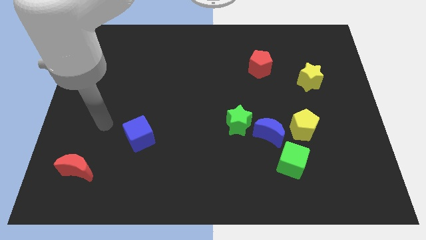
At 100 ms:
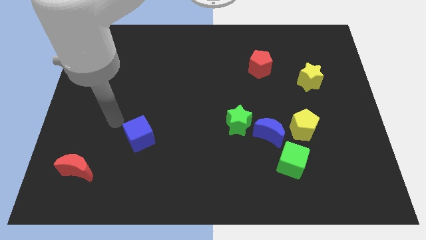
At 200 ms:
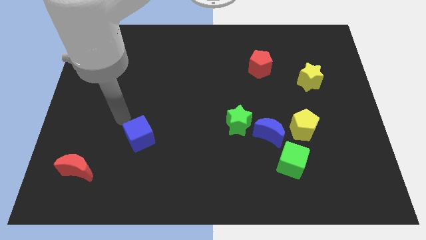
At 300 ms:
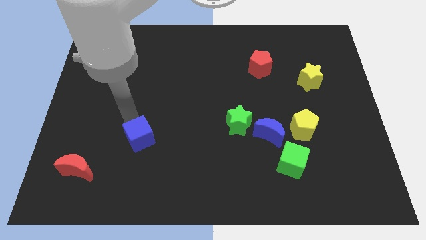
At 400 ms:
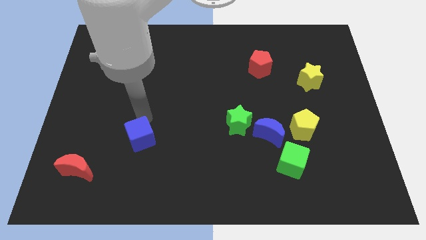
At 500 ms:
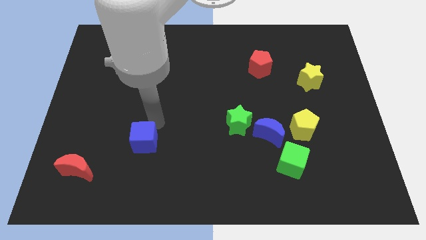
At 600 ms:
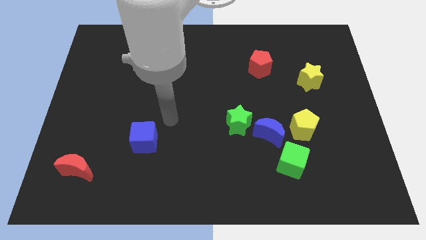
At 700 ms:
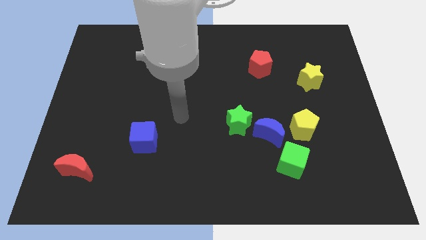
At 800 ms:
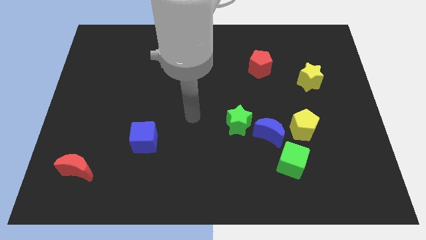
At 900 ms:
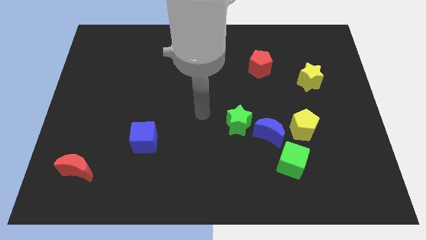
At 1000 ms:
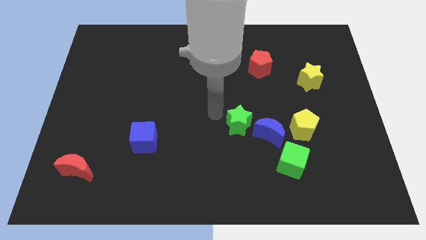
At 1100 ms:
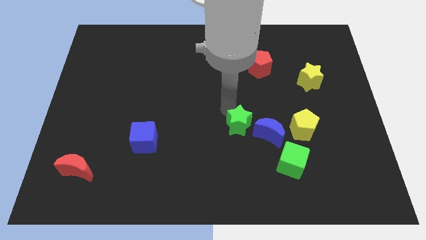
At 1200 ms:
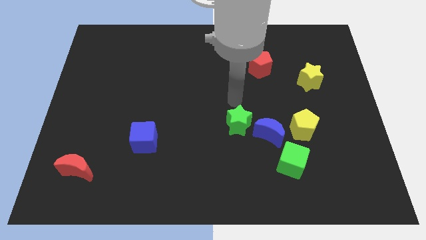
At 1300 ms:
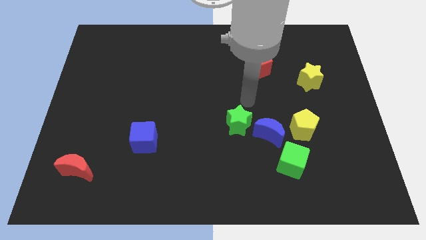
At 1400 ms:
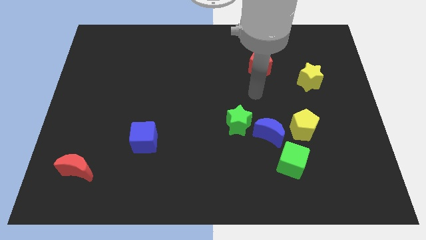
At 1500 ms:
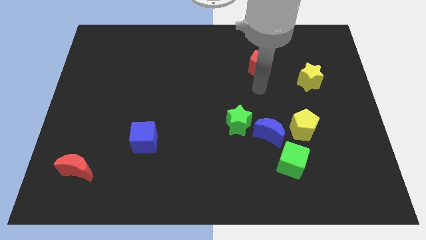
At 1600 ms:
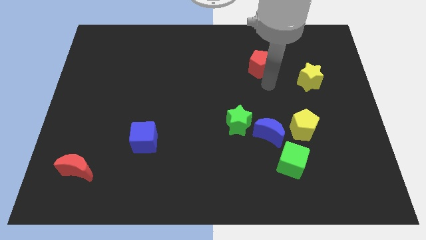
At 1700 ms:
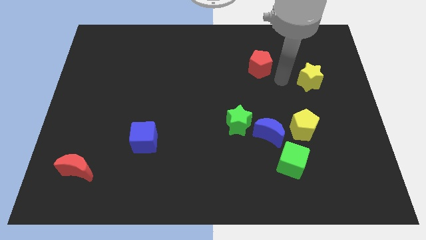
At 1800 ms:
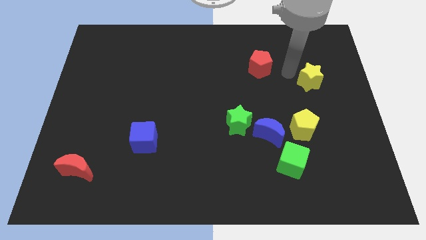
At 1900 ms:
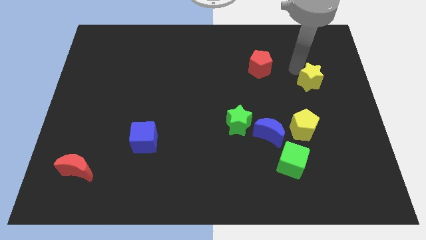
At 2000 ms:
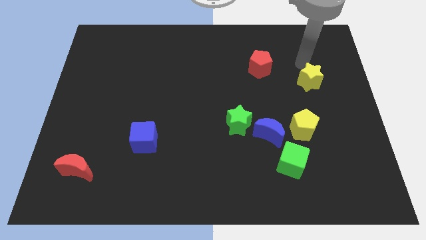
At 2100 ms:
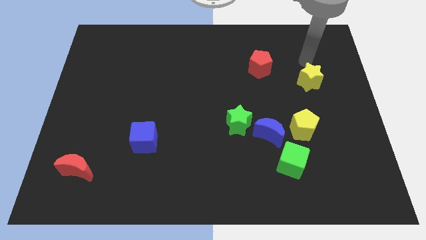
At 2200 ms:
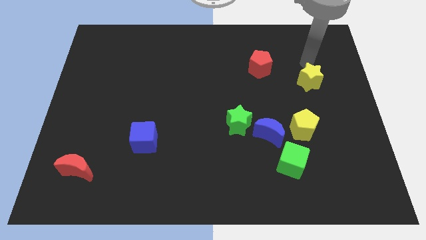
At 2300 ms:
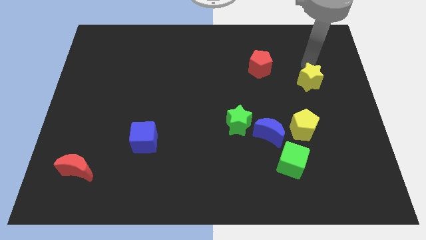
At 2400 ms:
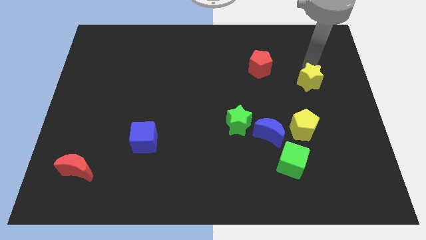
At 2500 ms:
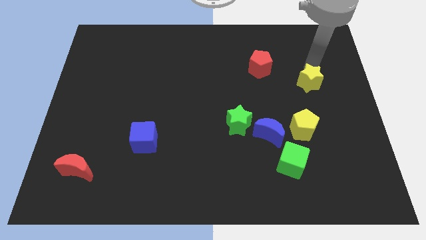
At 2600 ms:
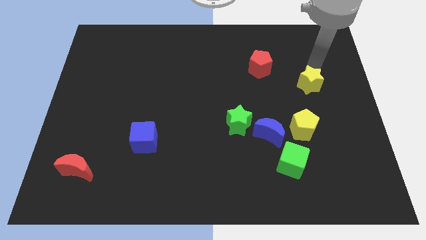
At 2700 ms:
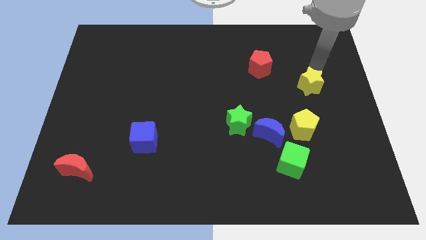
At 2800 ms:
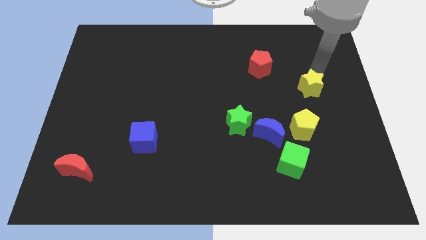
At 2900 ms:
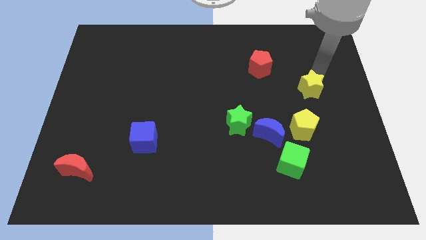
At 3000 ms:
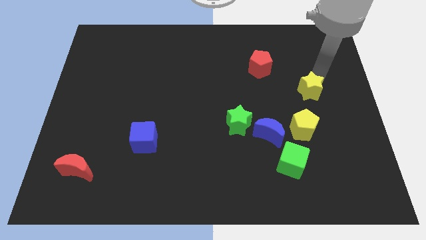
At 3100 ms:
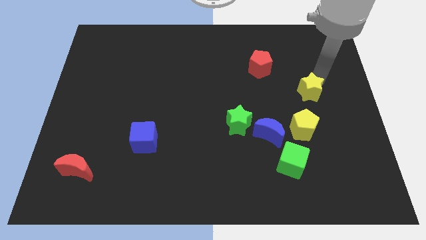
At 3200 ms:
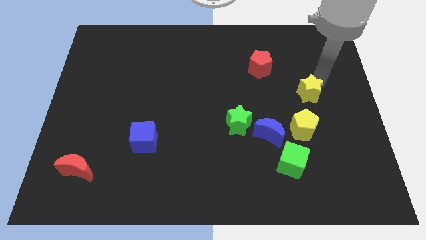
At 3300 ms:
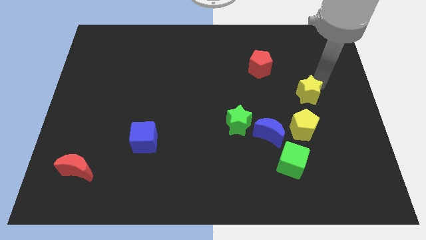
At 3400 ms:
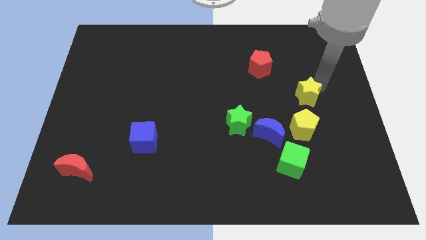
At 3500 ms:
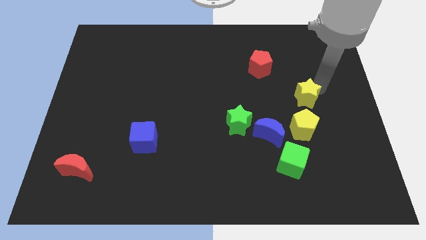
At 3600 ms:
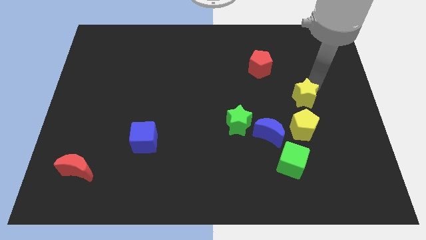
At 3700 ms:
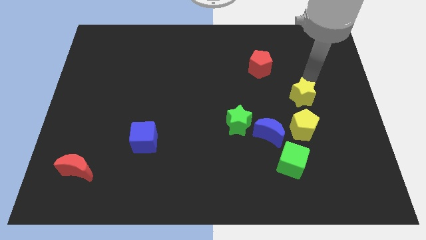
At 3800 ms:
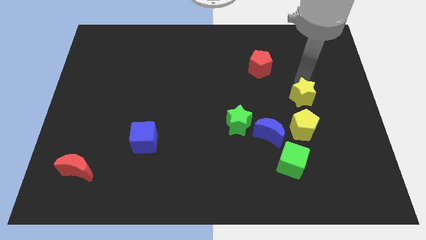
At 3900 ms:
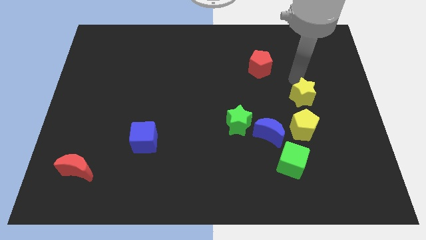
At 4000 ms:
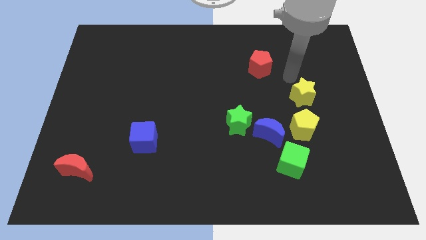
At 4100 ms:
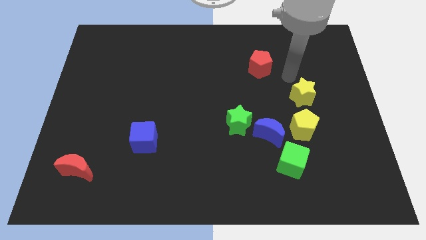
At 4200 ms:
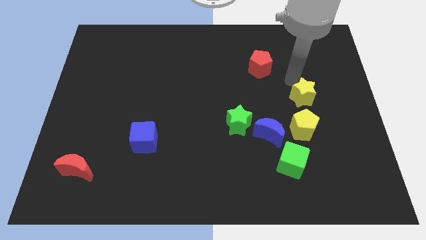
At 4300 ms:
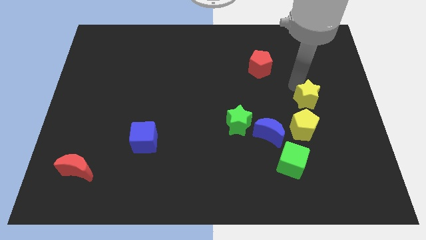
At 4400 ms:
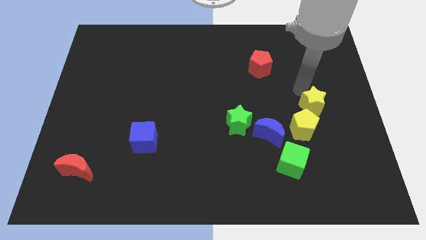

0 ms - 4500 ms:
move the yellow star a little bit downwards

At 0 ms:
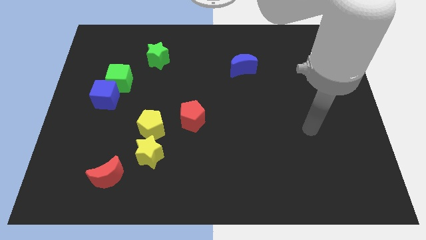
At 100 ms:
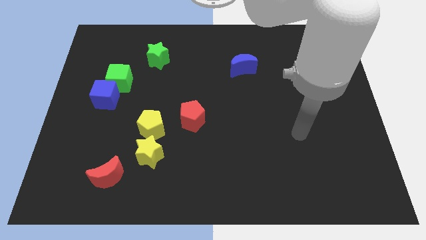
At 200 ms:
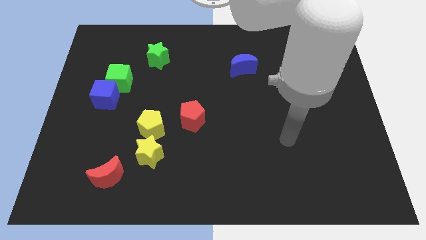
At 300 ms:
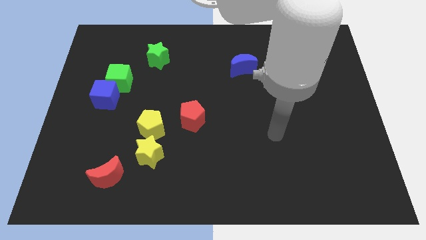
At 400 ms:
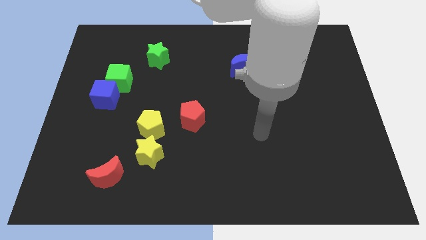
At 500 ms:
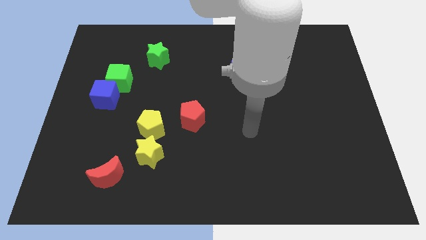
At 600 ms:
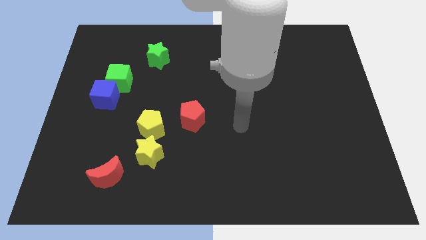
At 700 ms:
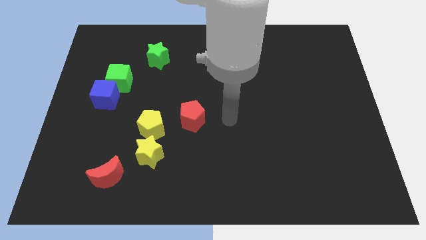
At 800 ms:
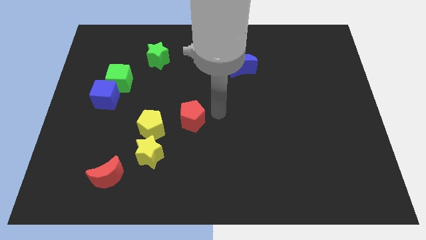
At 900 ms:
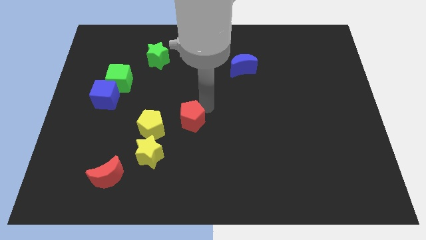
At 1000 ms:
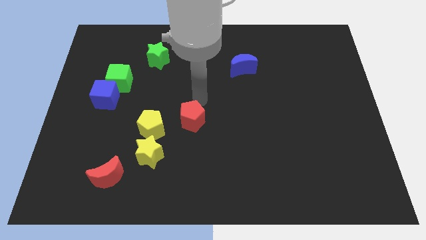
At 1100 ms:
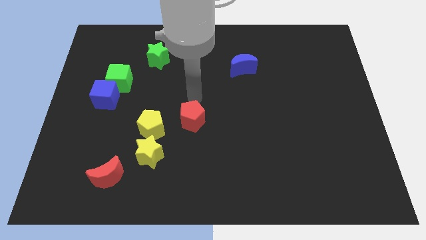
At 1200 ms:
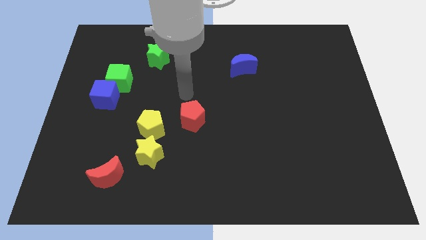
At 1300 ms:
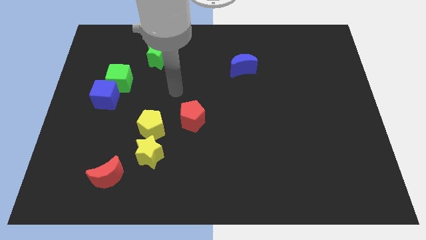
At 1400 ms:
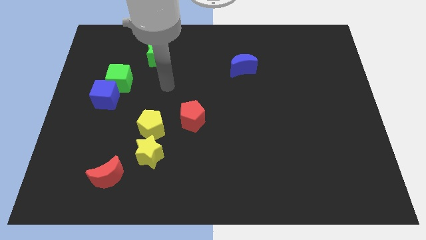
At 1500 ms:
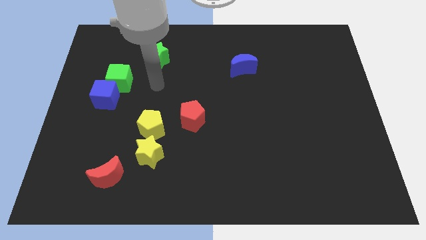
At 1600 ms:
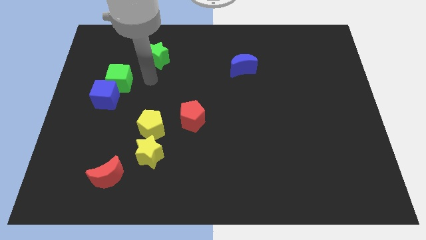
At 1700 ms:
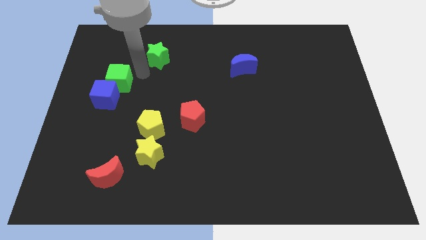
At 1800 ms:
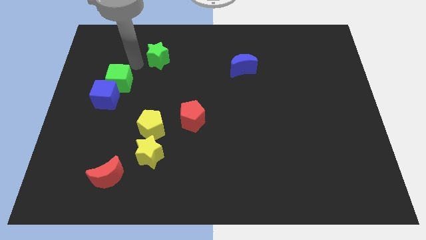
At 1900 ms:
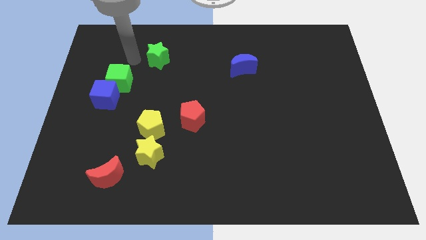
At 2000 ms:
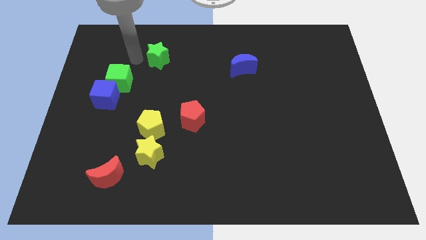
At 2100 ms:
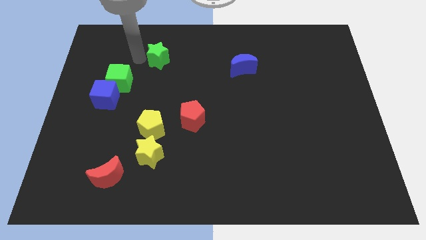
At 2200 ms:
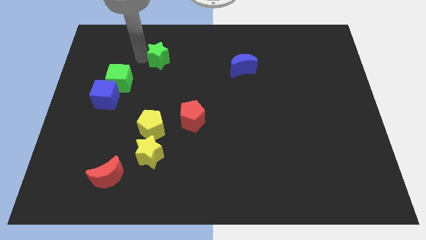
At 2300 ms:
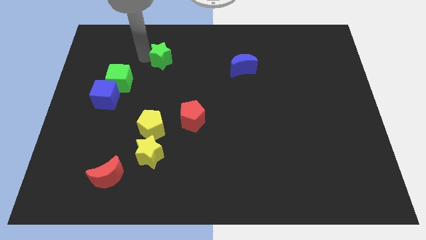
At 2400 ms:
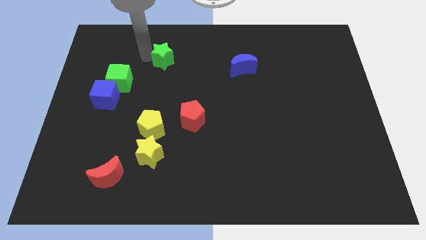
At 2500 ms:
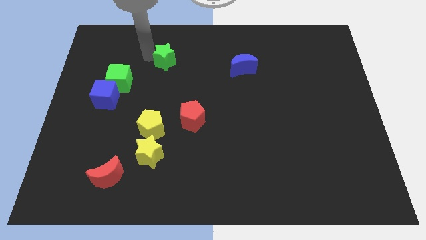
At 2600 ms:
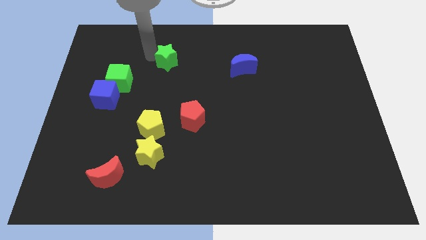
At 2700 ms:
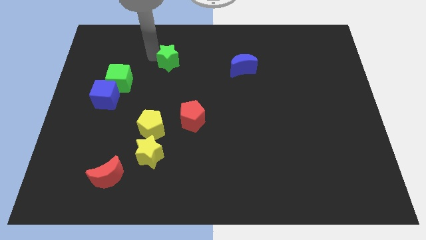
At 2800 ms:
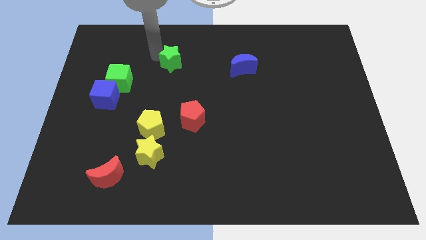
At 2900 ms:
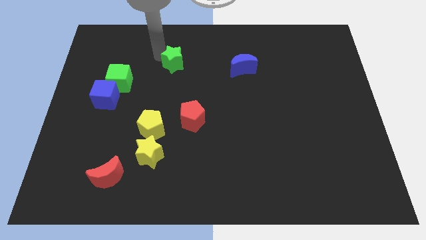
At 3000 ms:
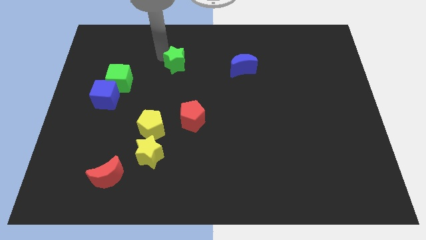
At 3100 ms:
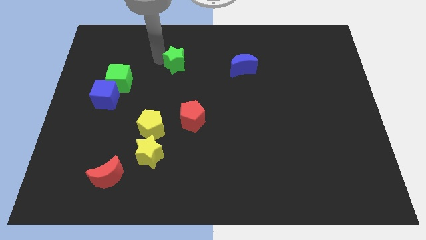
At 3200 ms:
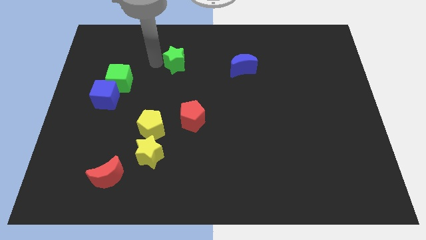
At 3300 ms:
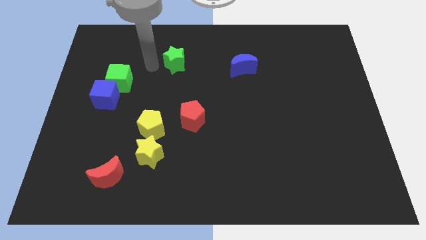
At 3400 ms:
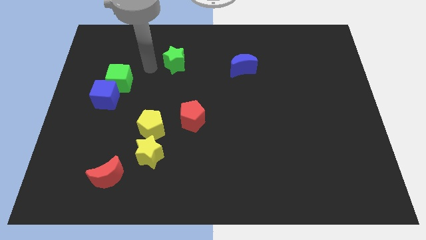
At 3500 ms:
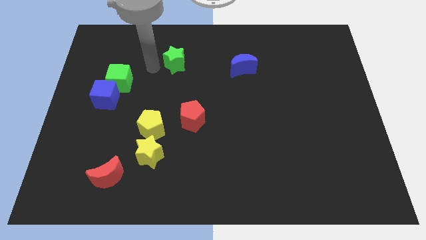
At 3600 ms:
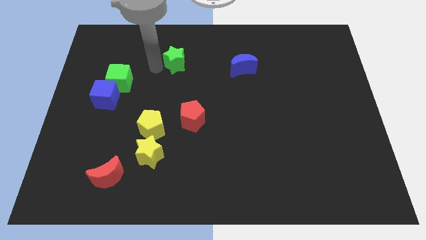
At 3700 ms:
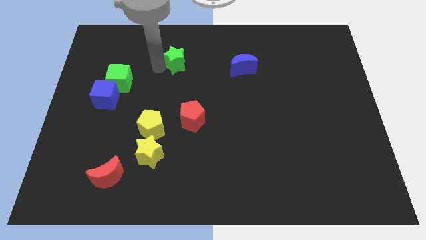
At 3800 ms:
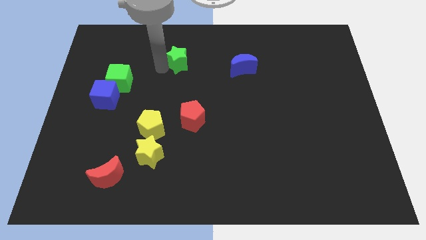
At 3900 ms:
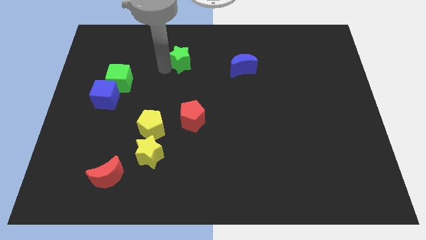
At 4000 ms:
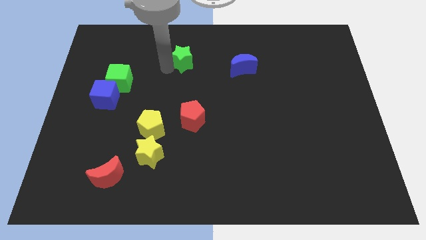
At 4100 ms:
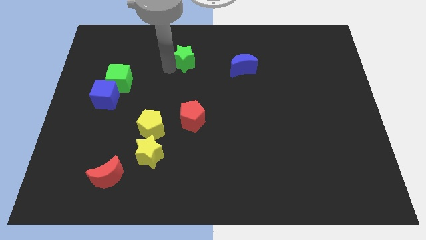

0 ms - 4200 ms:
slightly slide the green star to the right
